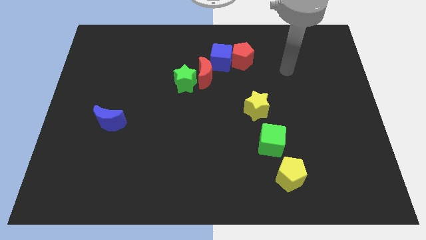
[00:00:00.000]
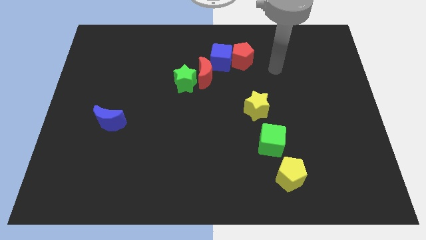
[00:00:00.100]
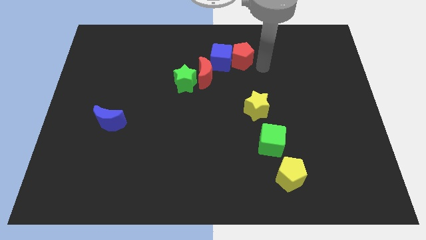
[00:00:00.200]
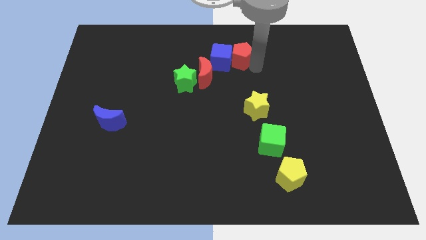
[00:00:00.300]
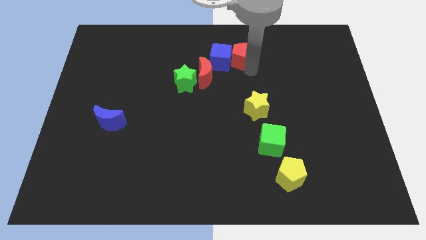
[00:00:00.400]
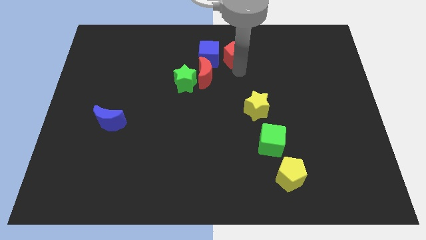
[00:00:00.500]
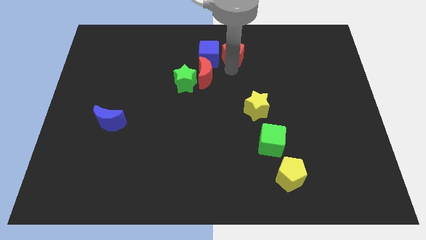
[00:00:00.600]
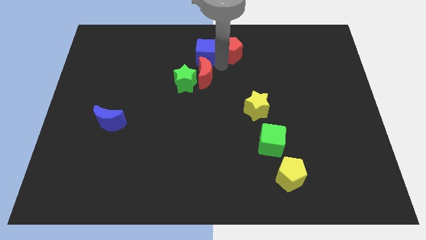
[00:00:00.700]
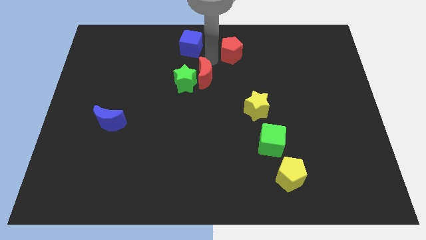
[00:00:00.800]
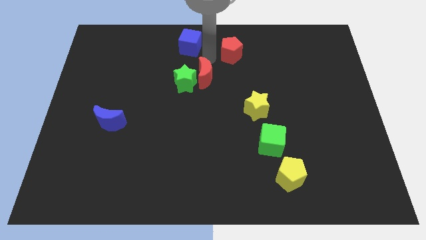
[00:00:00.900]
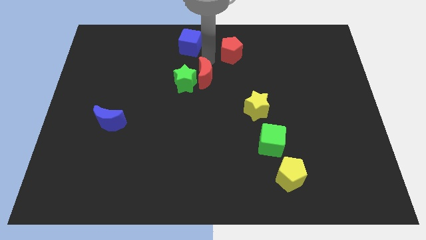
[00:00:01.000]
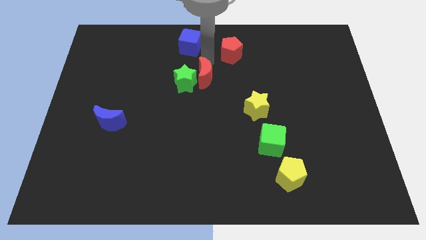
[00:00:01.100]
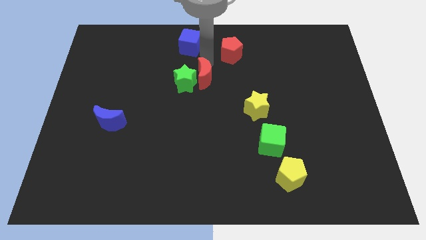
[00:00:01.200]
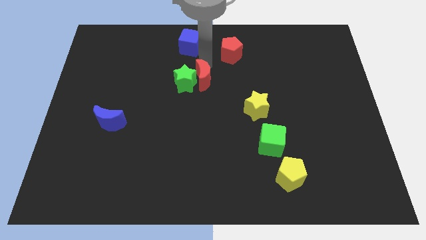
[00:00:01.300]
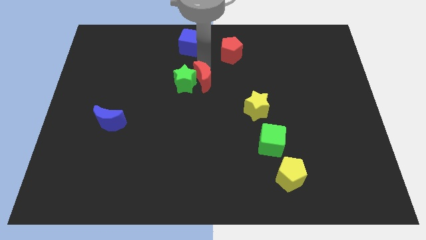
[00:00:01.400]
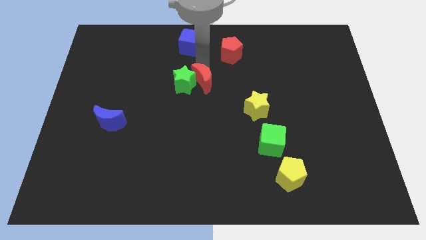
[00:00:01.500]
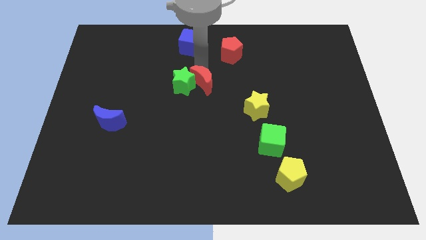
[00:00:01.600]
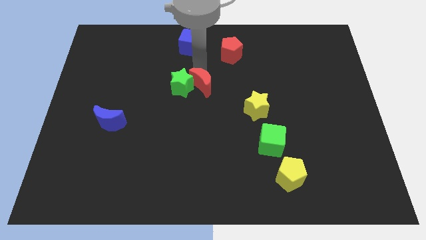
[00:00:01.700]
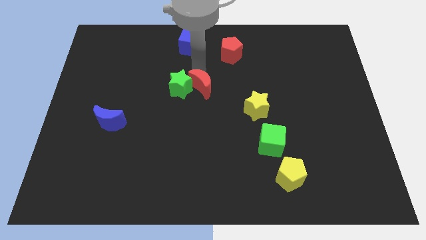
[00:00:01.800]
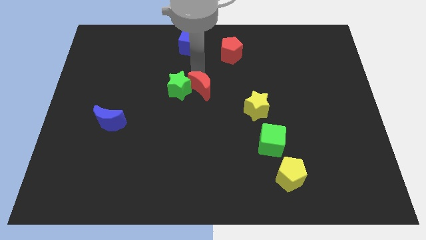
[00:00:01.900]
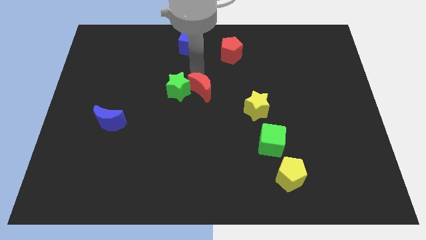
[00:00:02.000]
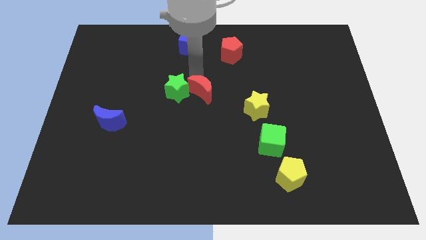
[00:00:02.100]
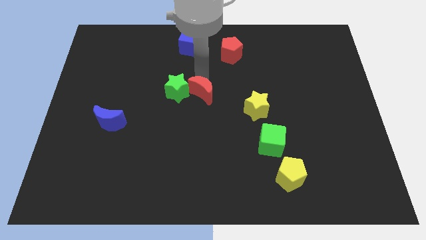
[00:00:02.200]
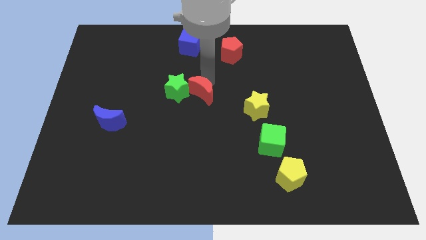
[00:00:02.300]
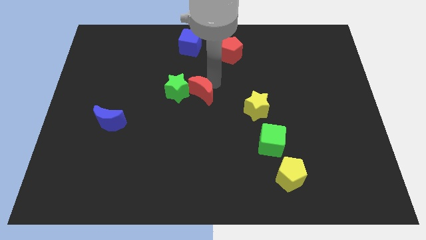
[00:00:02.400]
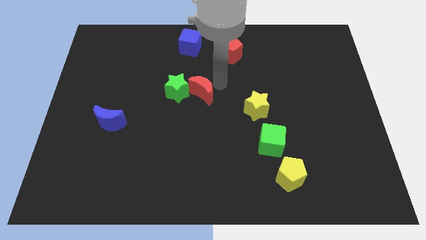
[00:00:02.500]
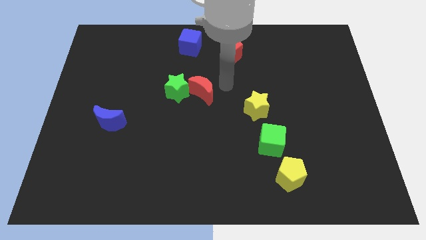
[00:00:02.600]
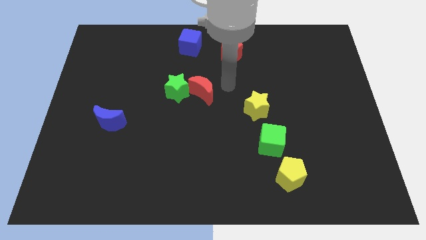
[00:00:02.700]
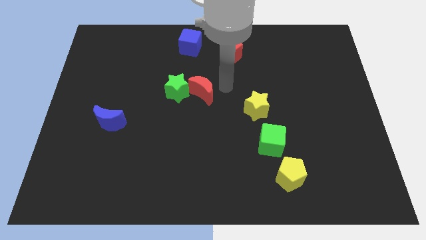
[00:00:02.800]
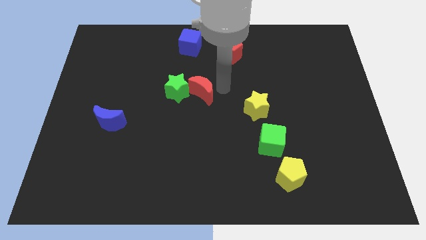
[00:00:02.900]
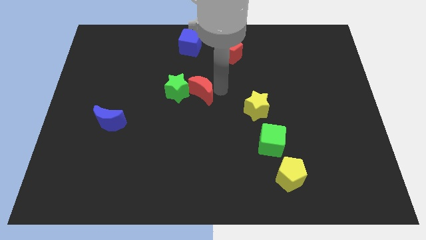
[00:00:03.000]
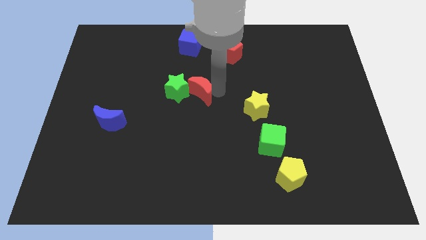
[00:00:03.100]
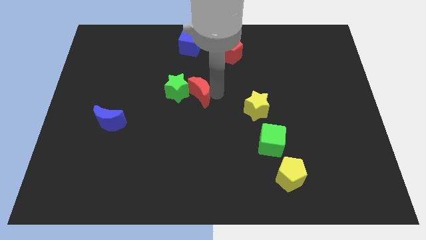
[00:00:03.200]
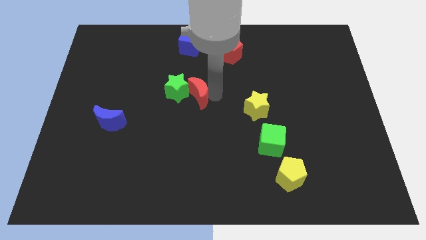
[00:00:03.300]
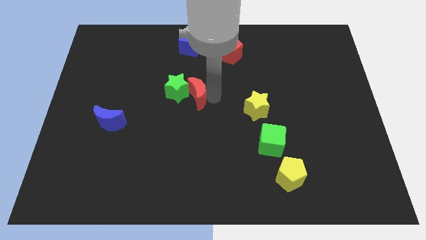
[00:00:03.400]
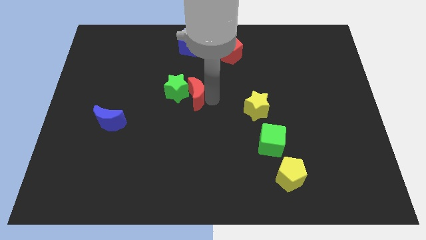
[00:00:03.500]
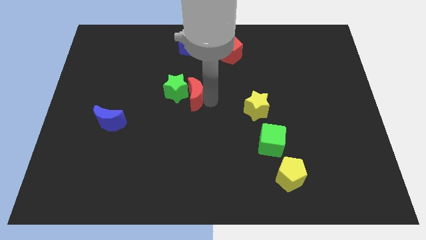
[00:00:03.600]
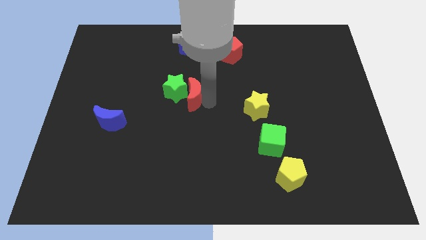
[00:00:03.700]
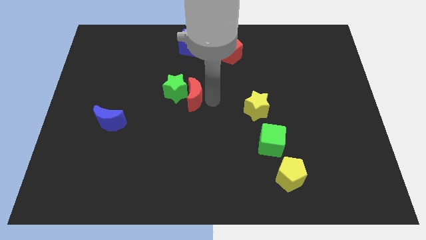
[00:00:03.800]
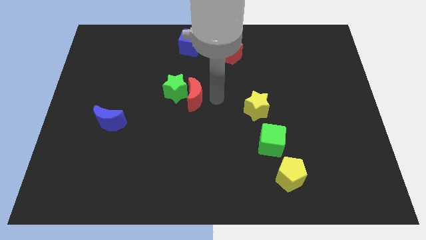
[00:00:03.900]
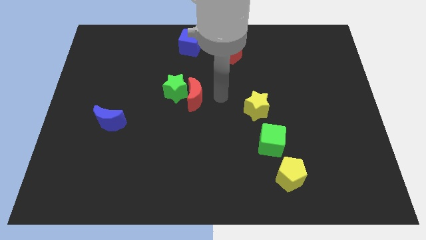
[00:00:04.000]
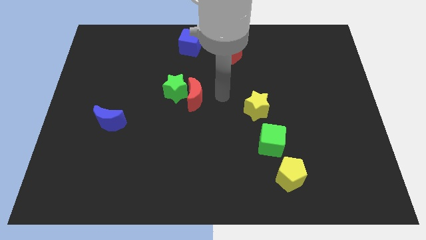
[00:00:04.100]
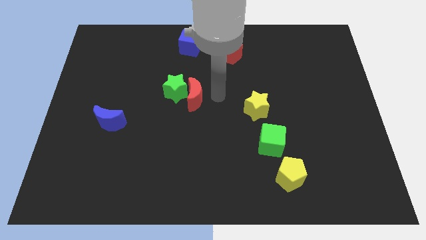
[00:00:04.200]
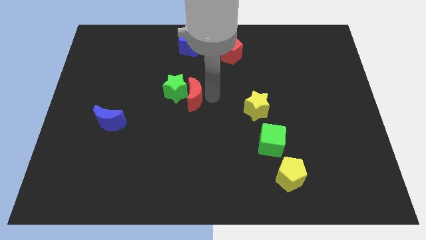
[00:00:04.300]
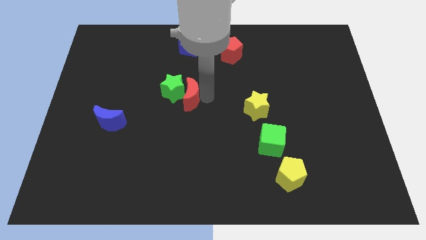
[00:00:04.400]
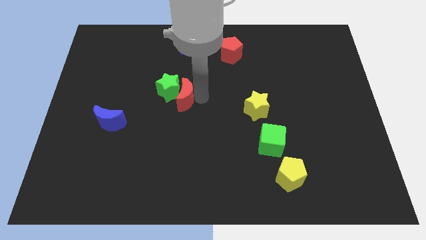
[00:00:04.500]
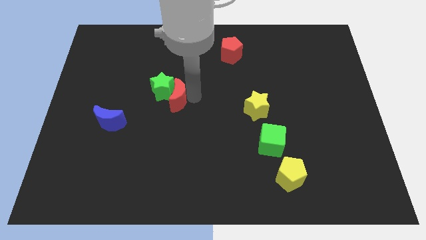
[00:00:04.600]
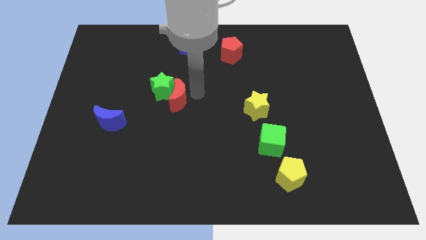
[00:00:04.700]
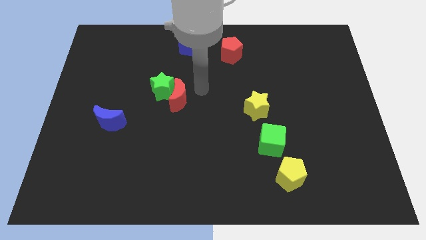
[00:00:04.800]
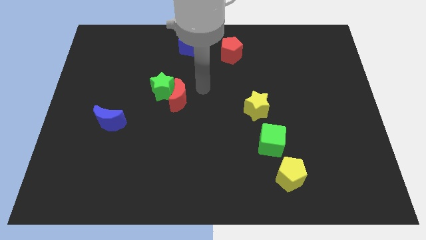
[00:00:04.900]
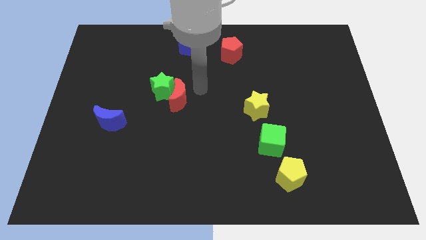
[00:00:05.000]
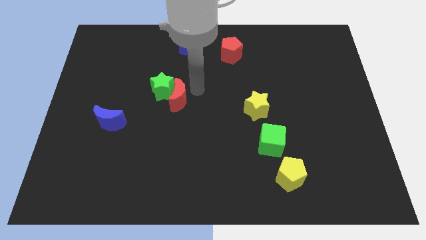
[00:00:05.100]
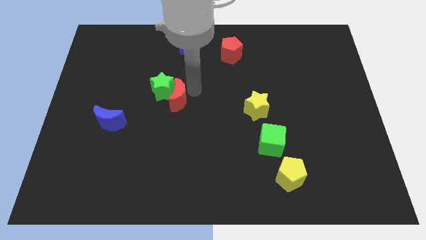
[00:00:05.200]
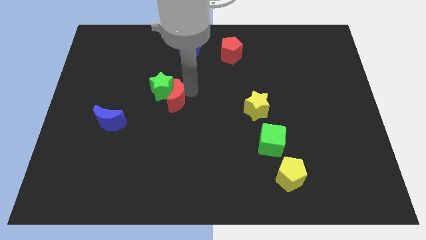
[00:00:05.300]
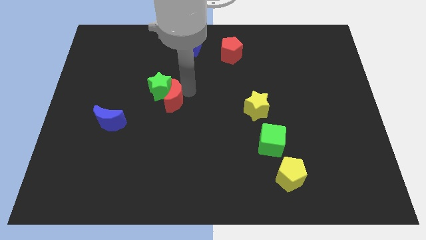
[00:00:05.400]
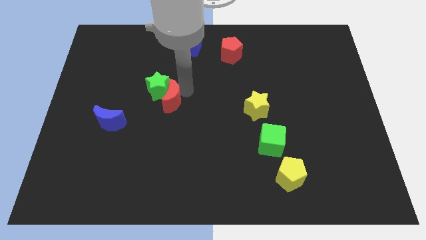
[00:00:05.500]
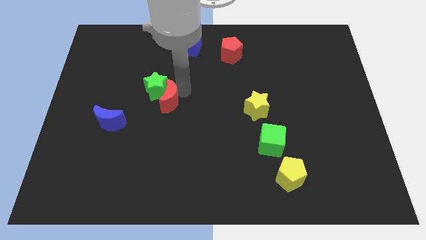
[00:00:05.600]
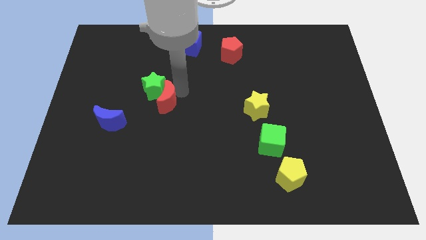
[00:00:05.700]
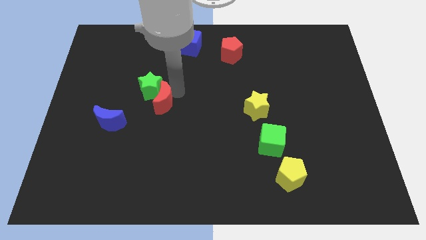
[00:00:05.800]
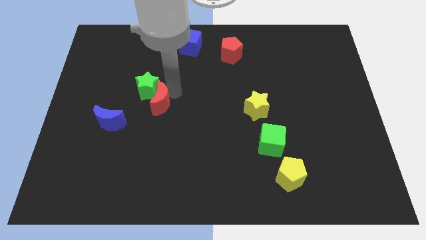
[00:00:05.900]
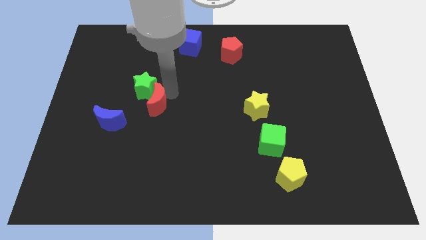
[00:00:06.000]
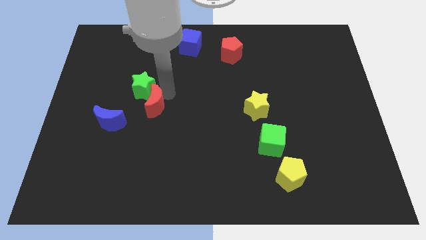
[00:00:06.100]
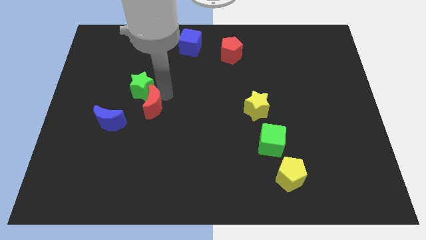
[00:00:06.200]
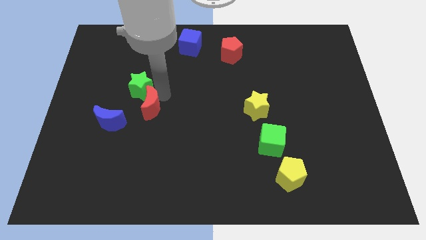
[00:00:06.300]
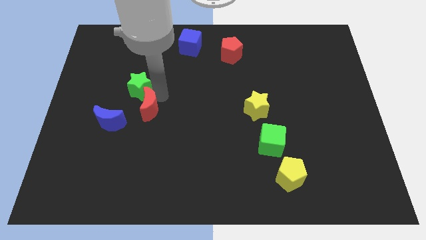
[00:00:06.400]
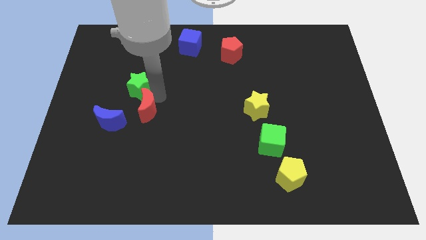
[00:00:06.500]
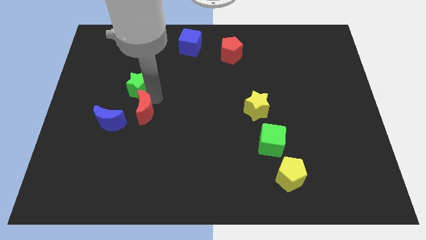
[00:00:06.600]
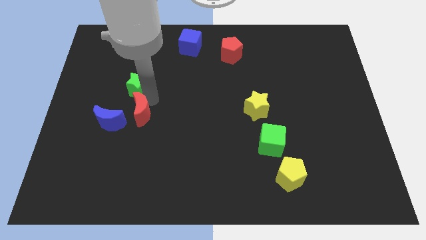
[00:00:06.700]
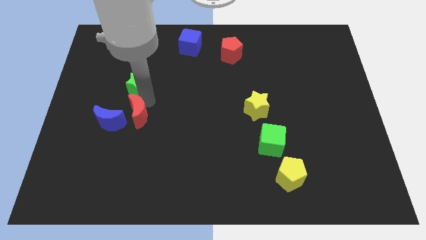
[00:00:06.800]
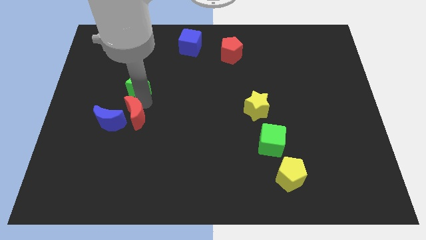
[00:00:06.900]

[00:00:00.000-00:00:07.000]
push the red moon to the blue moon
